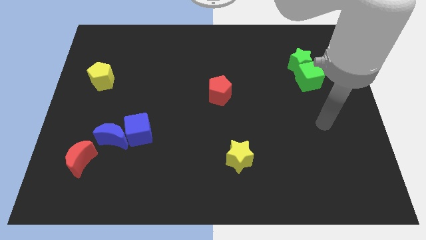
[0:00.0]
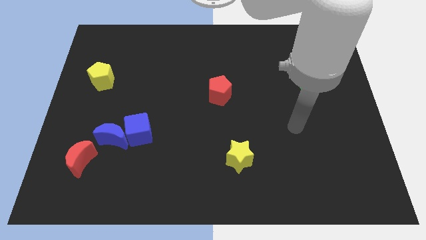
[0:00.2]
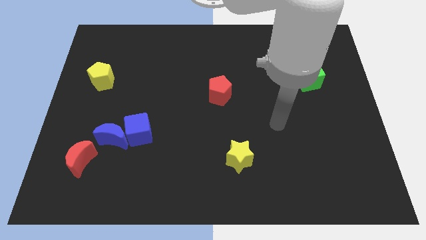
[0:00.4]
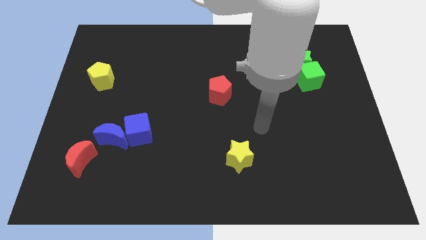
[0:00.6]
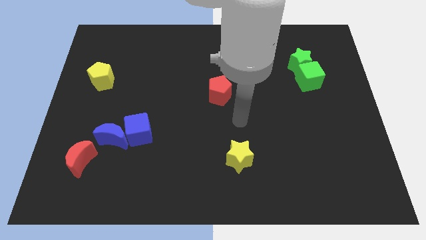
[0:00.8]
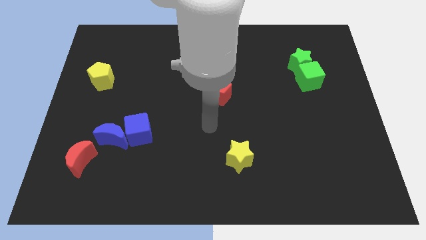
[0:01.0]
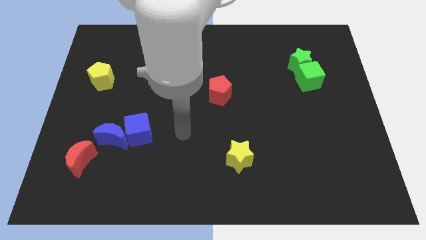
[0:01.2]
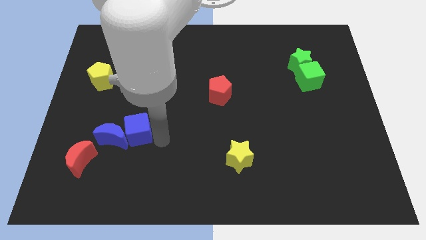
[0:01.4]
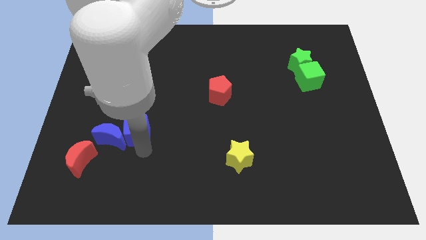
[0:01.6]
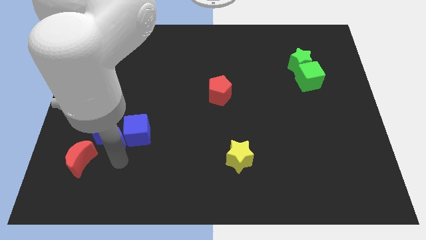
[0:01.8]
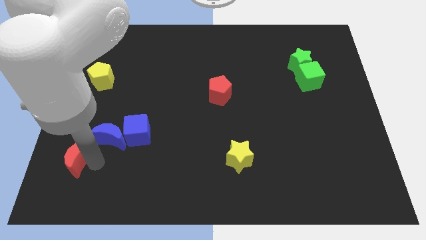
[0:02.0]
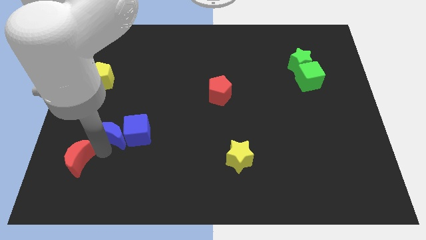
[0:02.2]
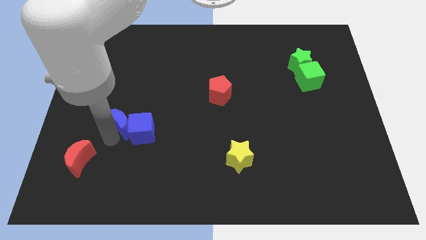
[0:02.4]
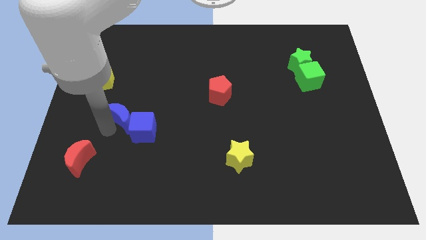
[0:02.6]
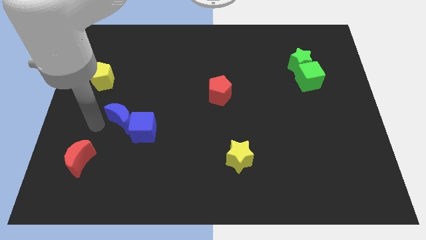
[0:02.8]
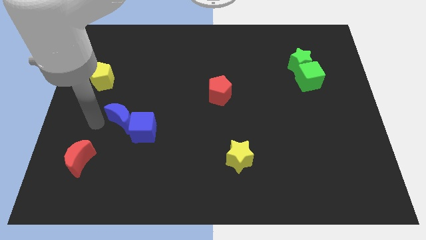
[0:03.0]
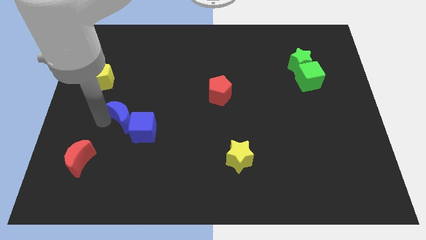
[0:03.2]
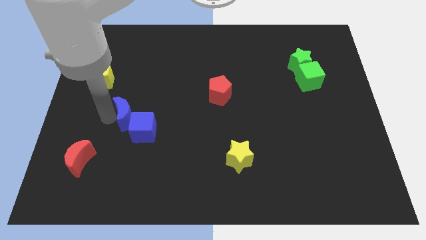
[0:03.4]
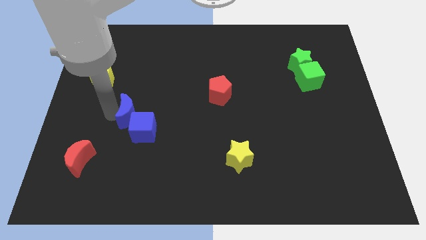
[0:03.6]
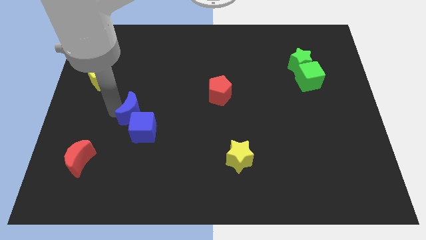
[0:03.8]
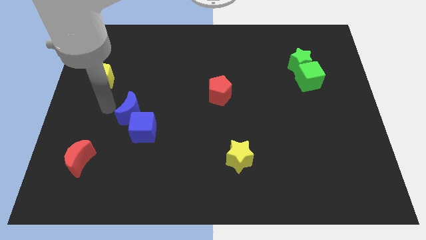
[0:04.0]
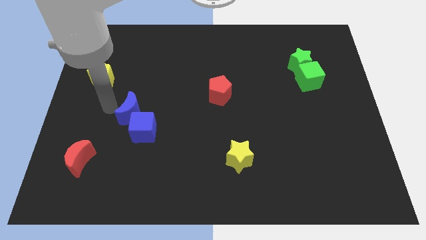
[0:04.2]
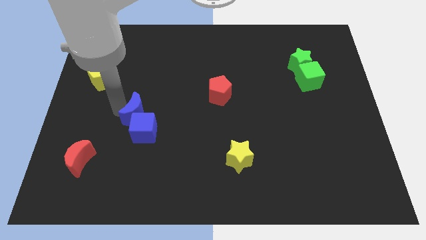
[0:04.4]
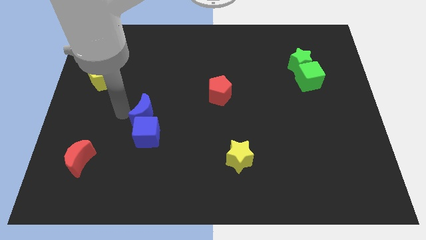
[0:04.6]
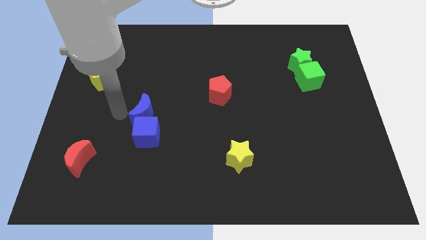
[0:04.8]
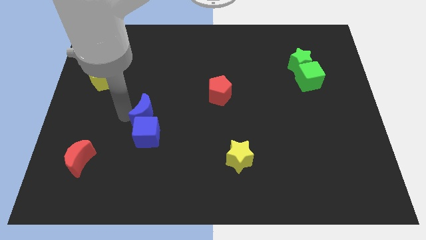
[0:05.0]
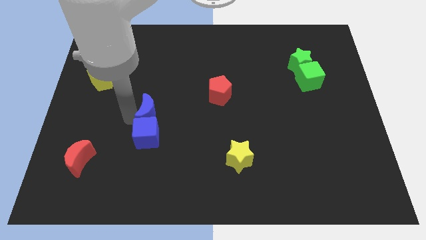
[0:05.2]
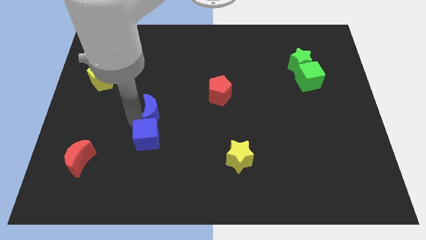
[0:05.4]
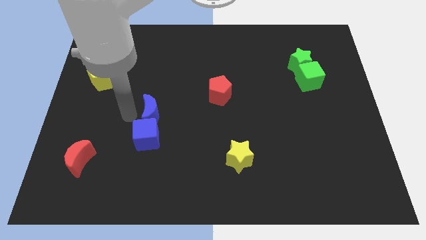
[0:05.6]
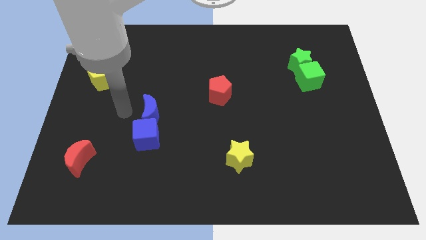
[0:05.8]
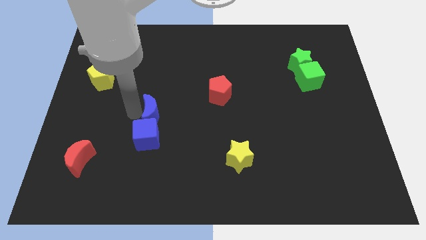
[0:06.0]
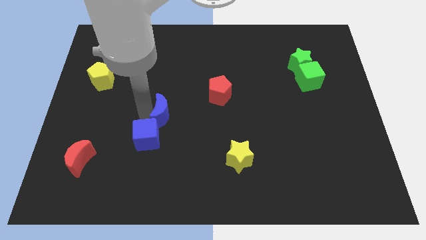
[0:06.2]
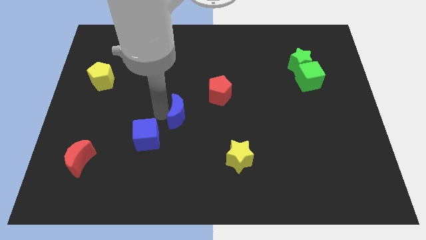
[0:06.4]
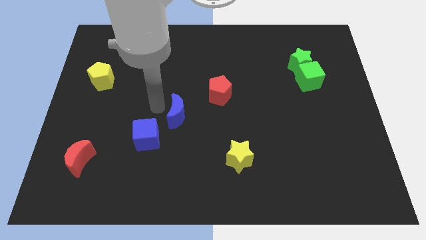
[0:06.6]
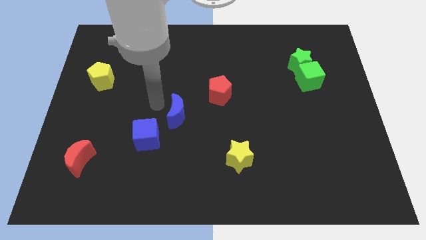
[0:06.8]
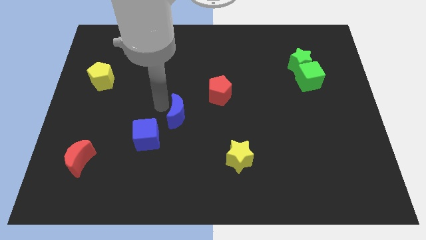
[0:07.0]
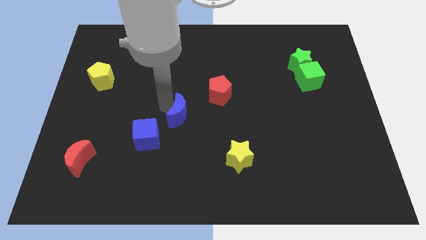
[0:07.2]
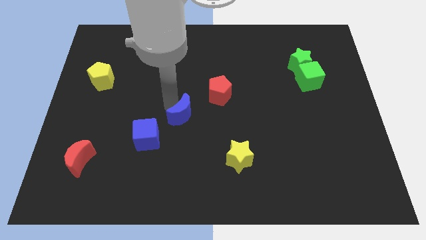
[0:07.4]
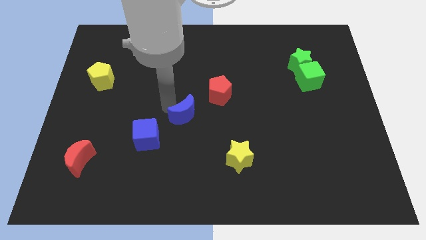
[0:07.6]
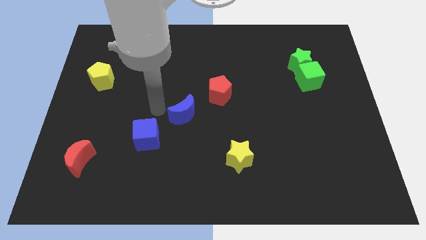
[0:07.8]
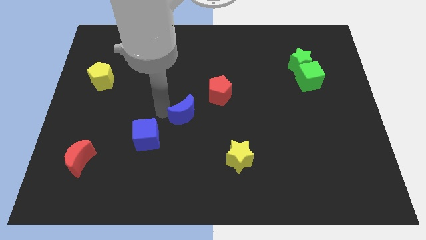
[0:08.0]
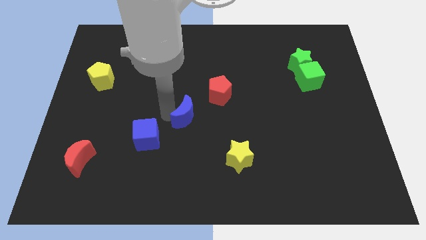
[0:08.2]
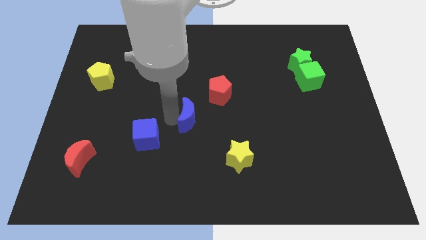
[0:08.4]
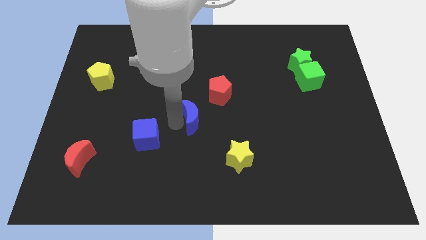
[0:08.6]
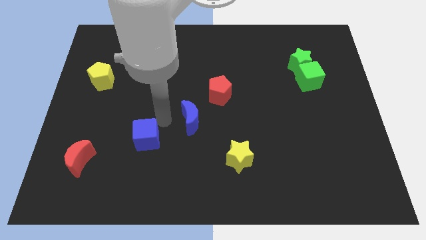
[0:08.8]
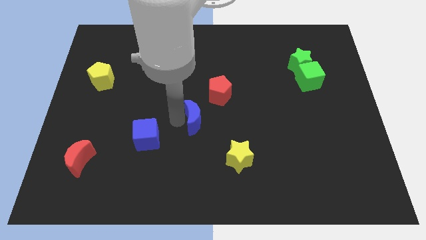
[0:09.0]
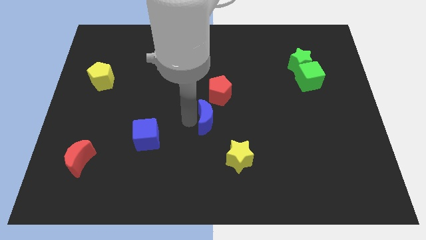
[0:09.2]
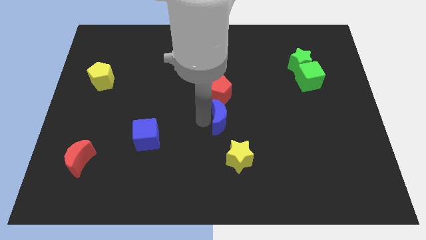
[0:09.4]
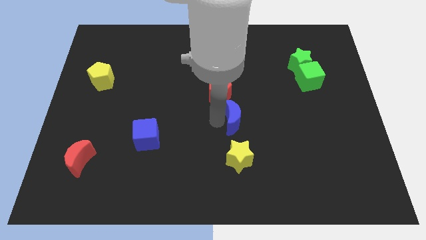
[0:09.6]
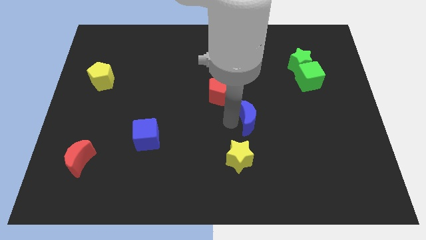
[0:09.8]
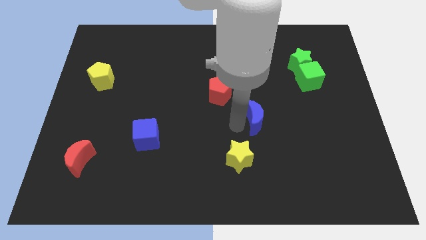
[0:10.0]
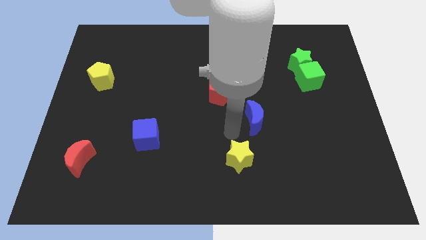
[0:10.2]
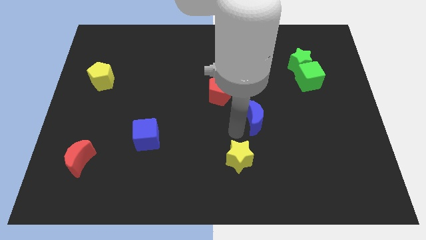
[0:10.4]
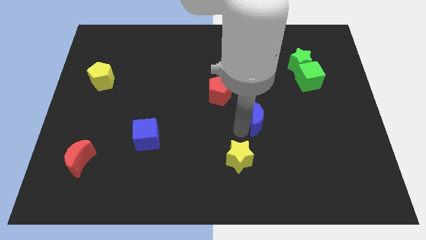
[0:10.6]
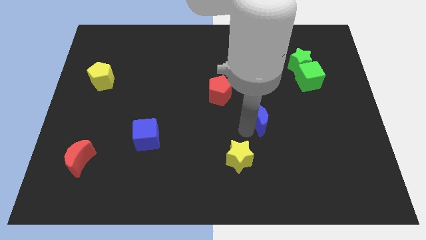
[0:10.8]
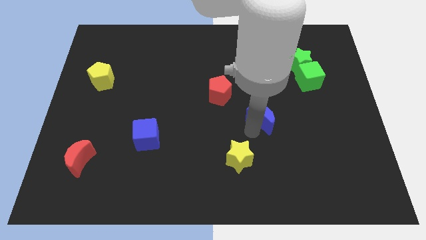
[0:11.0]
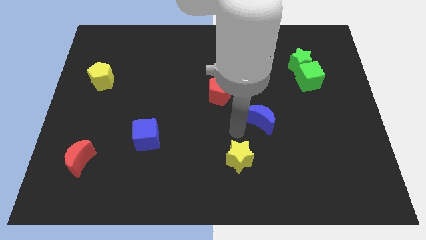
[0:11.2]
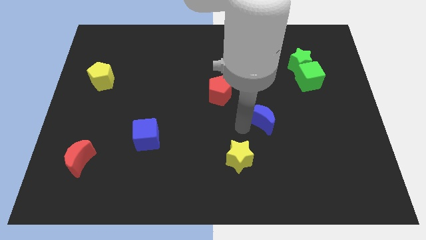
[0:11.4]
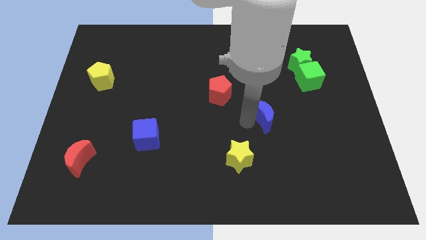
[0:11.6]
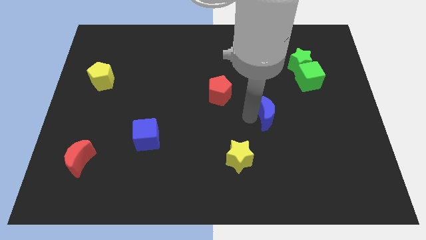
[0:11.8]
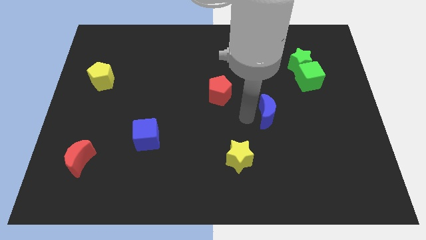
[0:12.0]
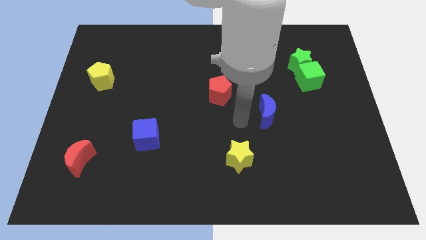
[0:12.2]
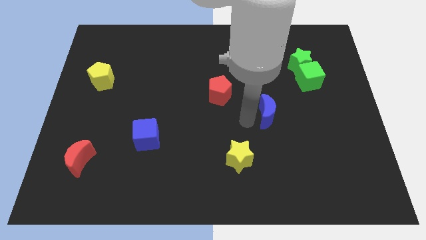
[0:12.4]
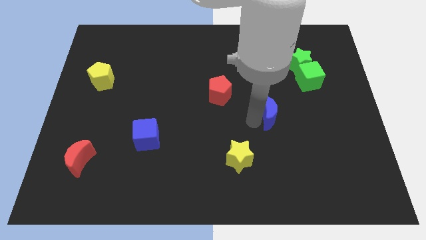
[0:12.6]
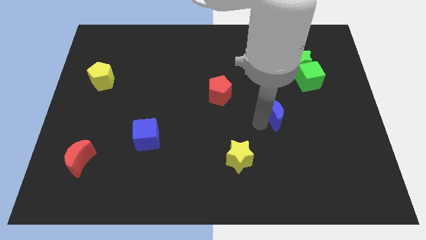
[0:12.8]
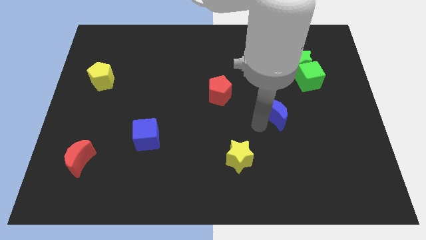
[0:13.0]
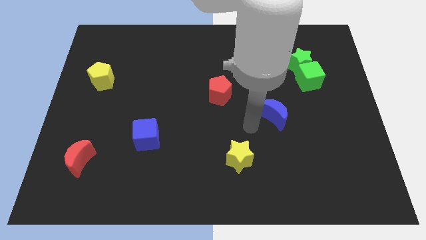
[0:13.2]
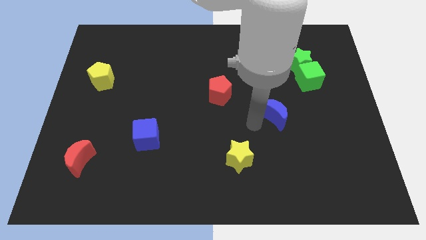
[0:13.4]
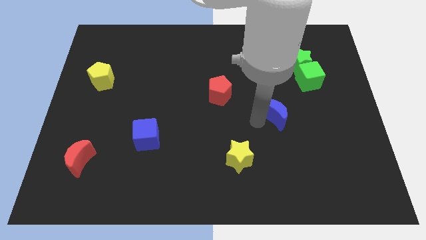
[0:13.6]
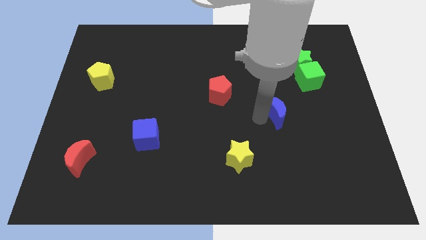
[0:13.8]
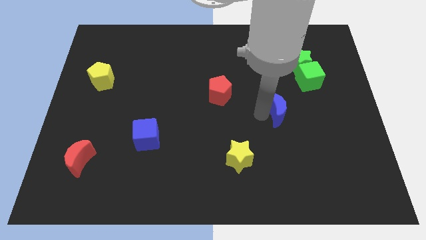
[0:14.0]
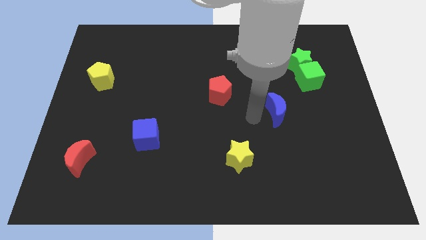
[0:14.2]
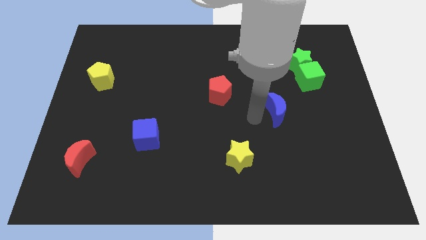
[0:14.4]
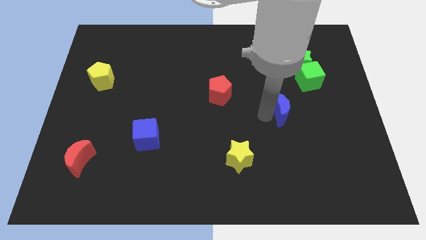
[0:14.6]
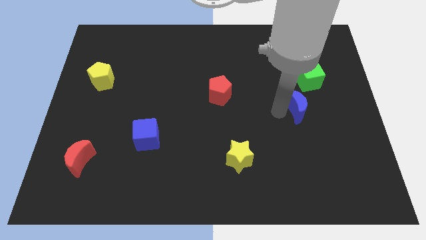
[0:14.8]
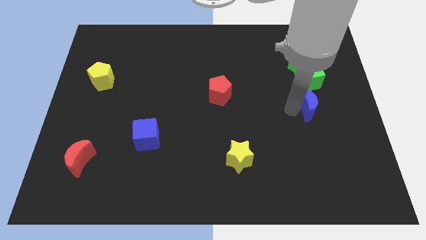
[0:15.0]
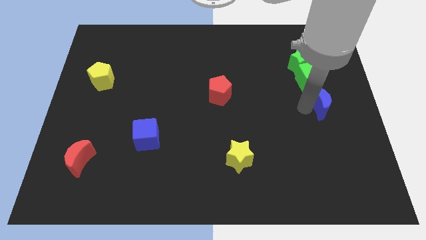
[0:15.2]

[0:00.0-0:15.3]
move the blue moon to the center right
